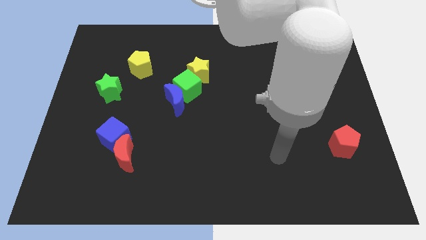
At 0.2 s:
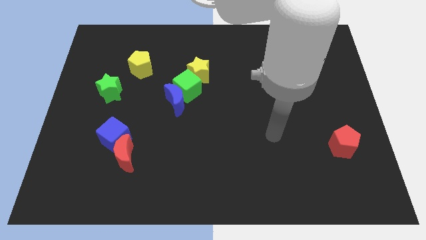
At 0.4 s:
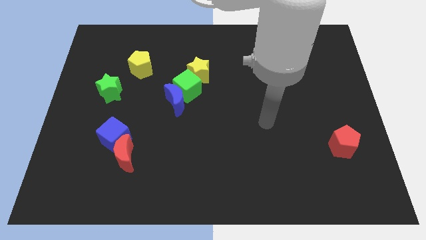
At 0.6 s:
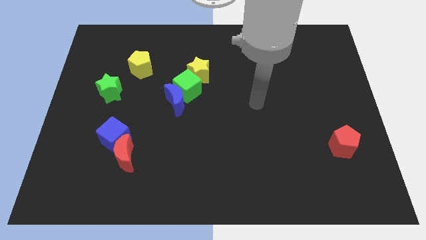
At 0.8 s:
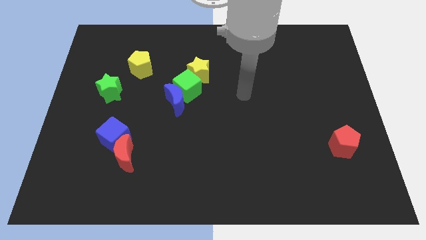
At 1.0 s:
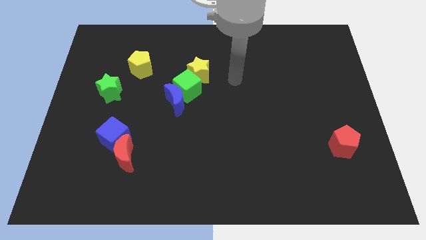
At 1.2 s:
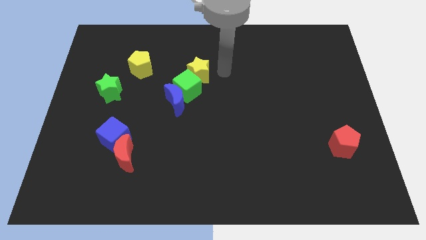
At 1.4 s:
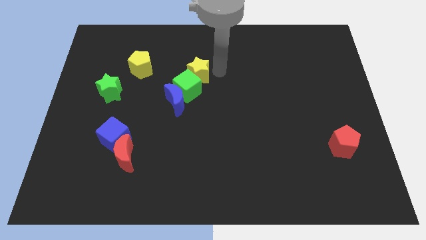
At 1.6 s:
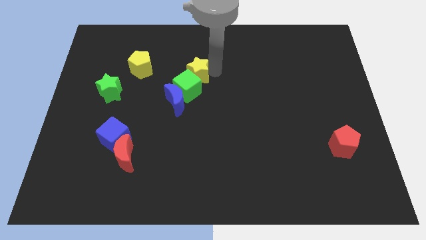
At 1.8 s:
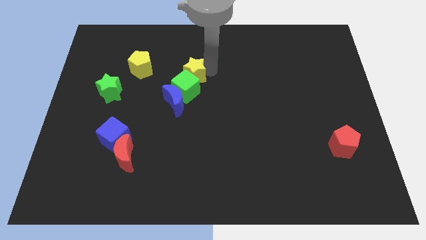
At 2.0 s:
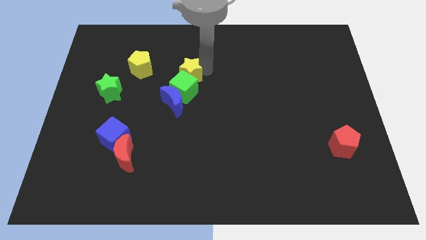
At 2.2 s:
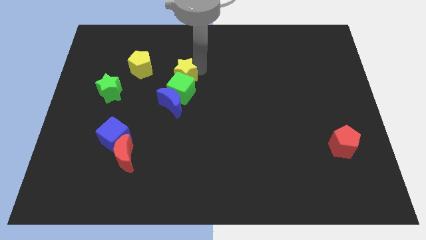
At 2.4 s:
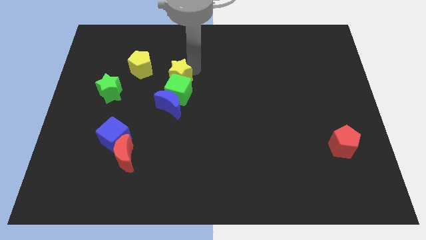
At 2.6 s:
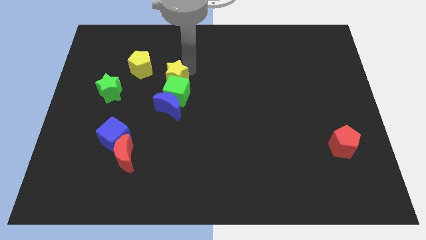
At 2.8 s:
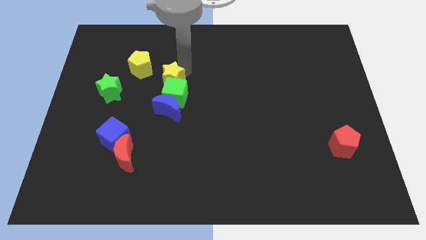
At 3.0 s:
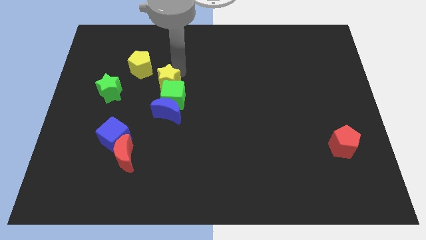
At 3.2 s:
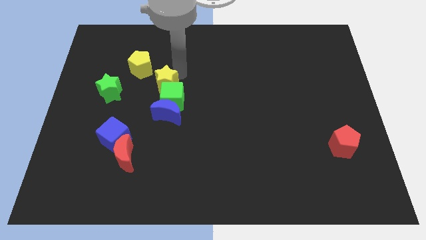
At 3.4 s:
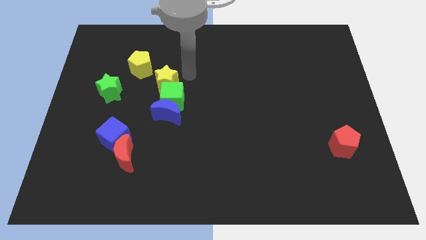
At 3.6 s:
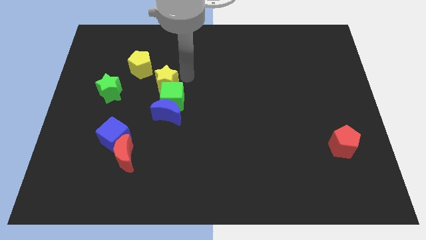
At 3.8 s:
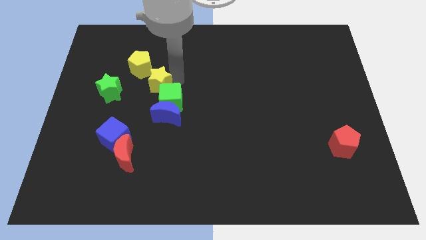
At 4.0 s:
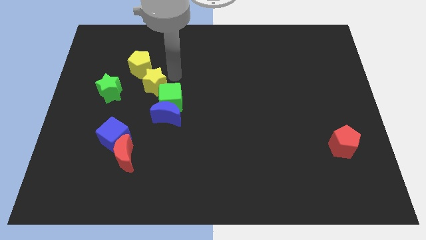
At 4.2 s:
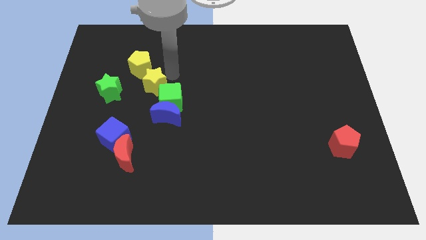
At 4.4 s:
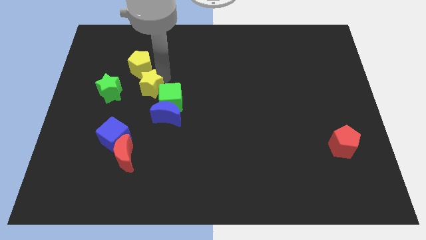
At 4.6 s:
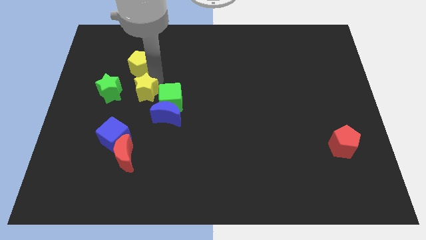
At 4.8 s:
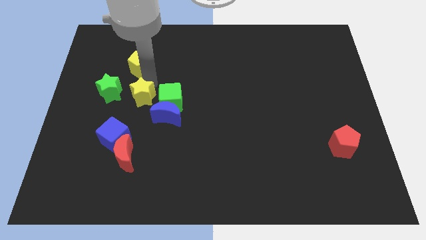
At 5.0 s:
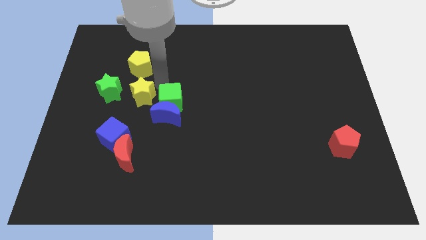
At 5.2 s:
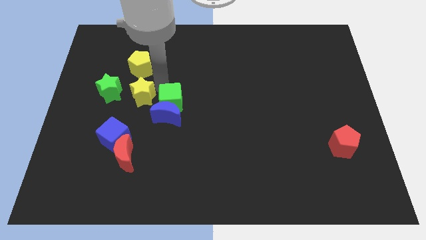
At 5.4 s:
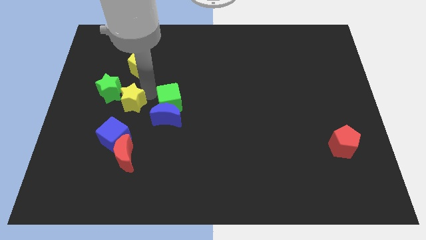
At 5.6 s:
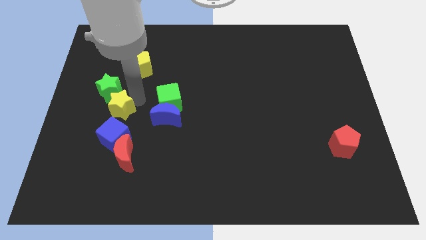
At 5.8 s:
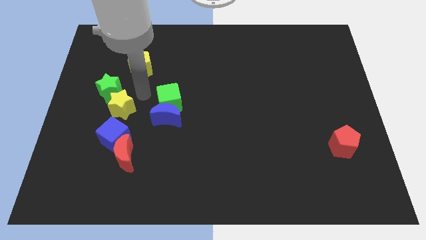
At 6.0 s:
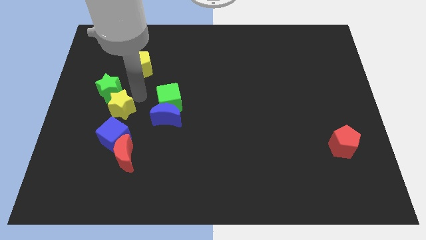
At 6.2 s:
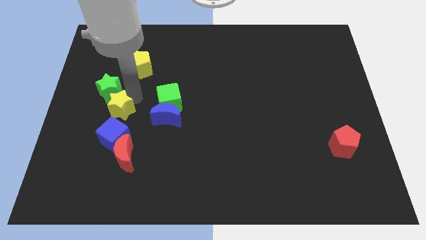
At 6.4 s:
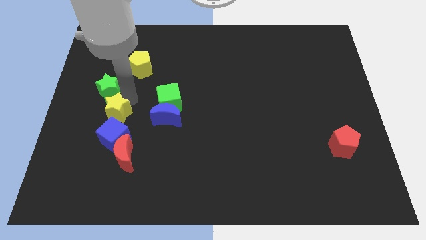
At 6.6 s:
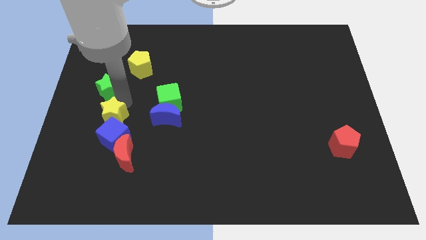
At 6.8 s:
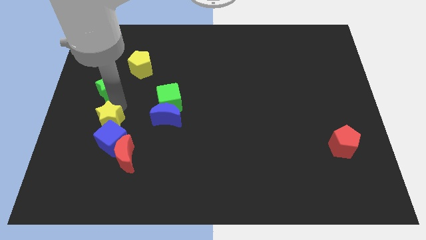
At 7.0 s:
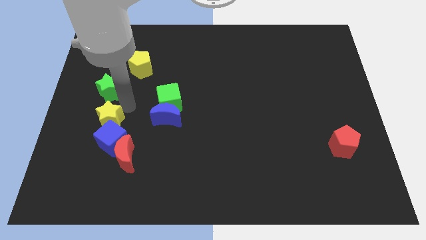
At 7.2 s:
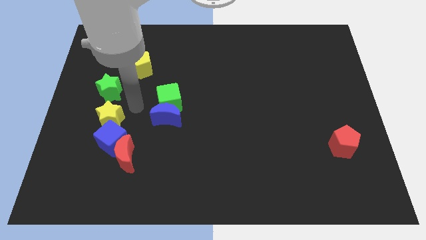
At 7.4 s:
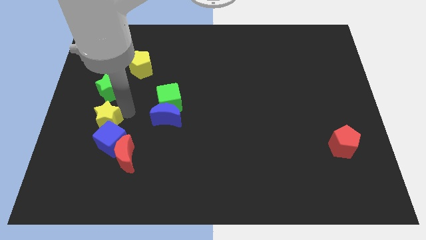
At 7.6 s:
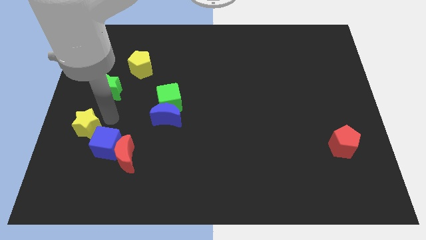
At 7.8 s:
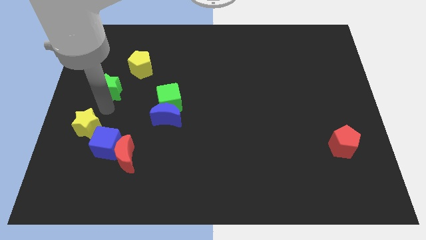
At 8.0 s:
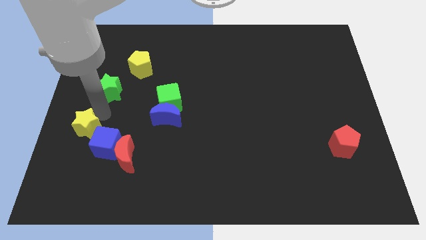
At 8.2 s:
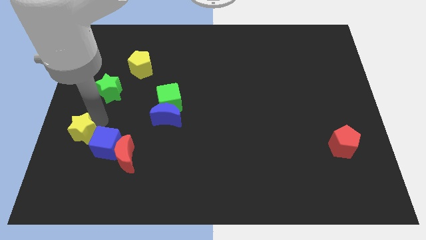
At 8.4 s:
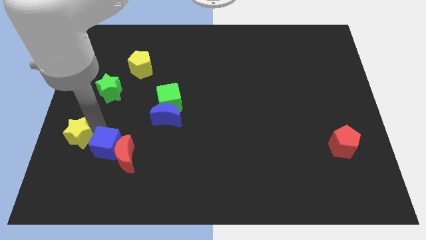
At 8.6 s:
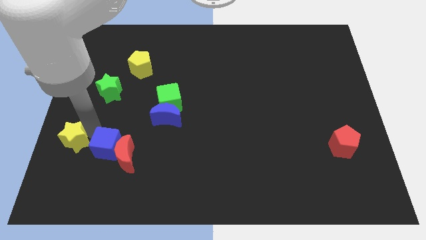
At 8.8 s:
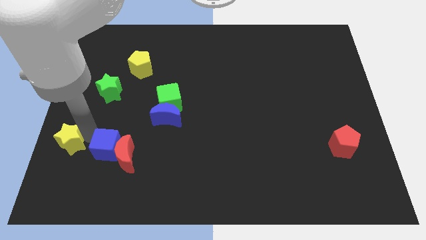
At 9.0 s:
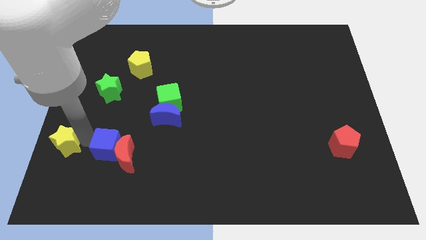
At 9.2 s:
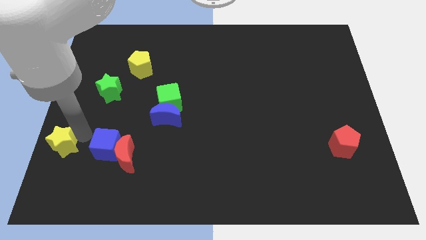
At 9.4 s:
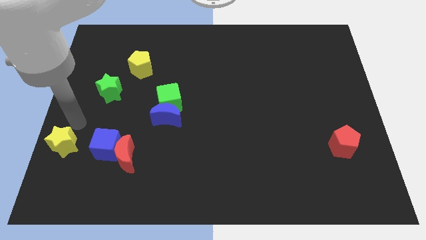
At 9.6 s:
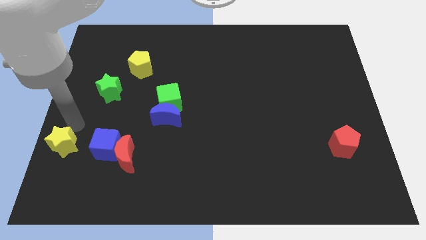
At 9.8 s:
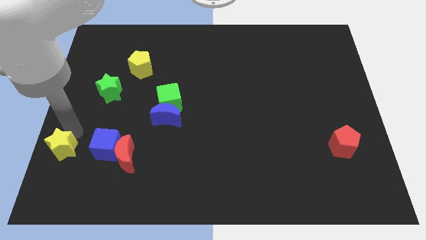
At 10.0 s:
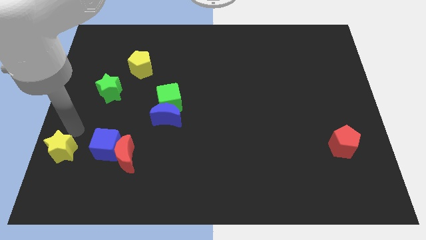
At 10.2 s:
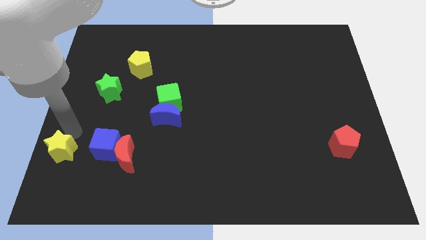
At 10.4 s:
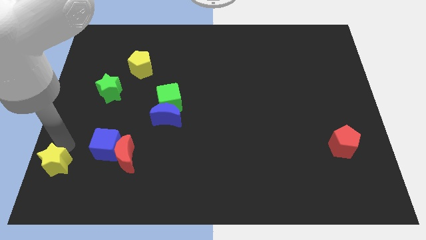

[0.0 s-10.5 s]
push the yellow star to the lower left corner
